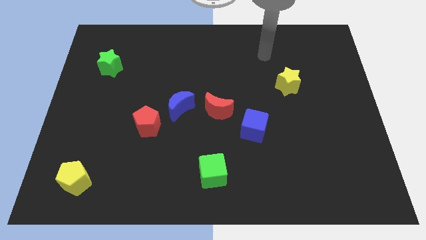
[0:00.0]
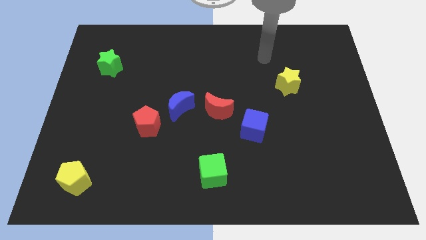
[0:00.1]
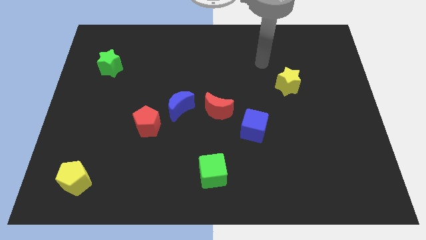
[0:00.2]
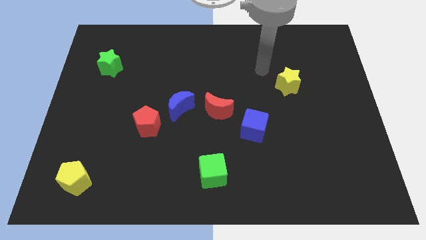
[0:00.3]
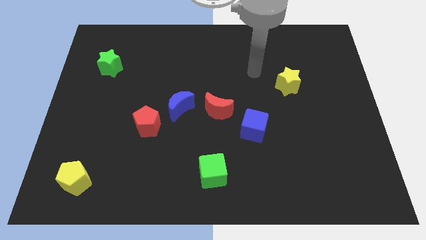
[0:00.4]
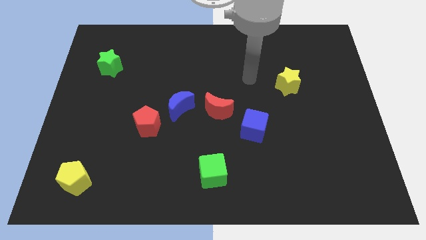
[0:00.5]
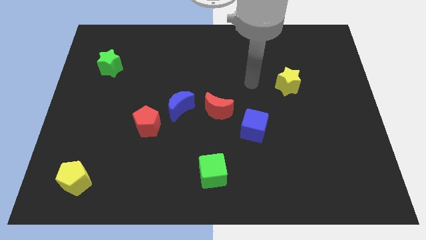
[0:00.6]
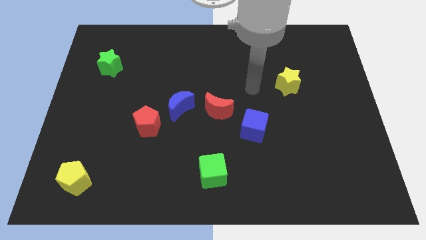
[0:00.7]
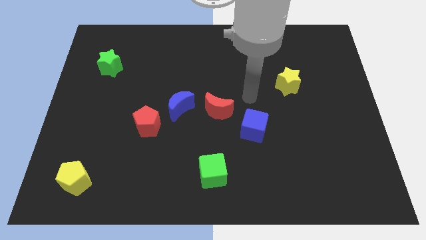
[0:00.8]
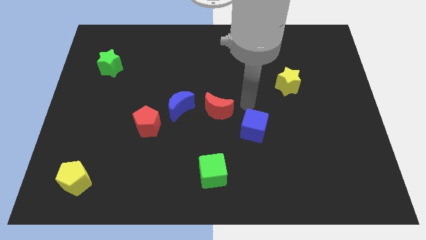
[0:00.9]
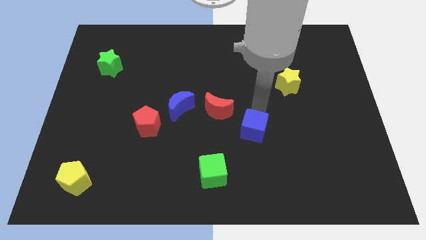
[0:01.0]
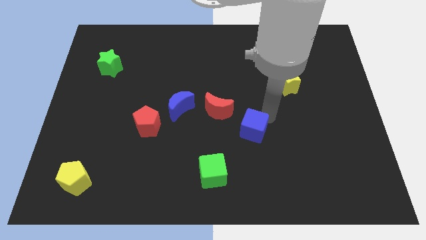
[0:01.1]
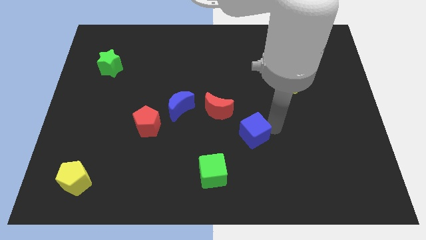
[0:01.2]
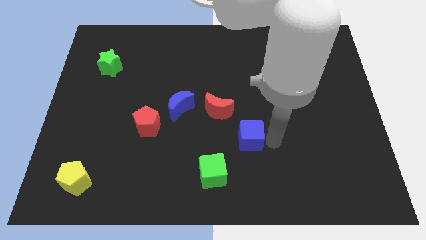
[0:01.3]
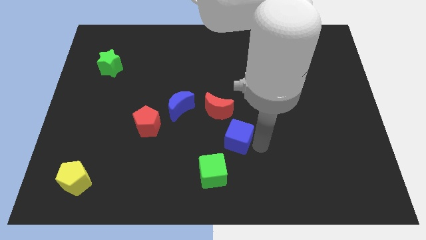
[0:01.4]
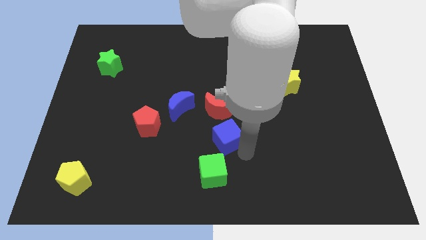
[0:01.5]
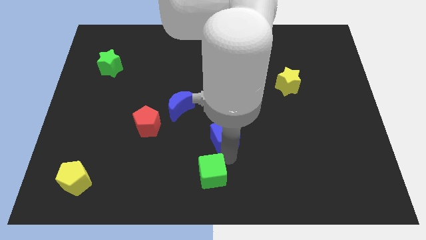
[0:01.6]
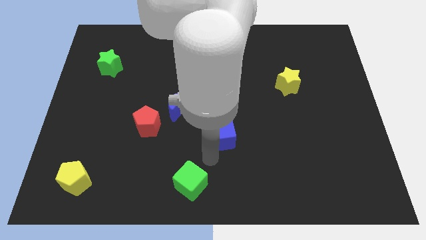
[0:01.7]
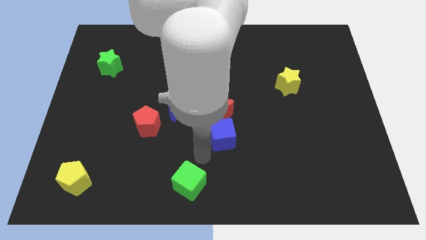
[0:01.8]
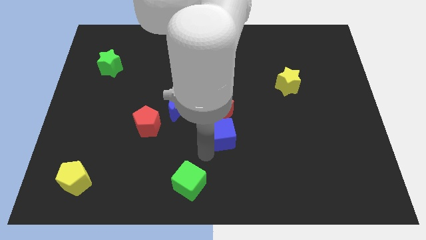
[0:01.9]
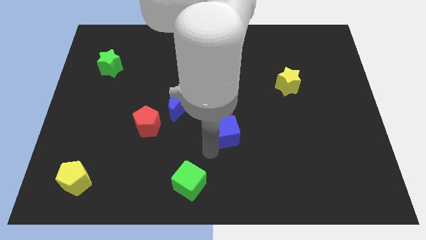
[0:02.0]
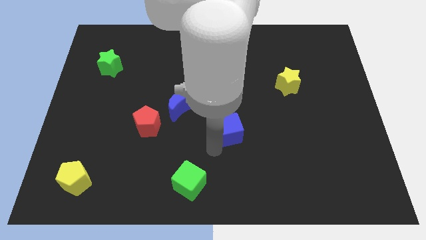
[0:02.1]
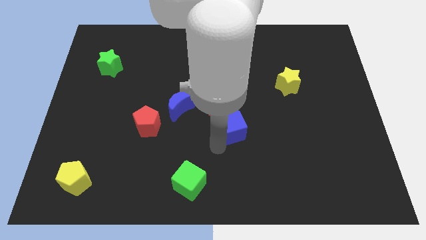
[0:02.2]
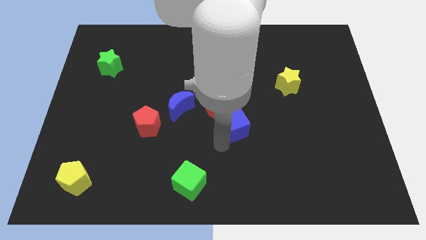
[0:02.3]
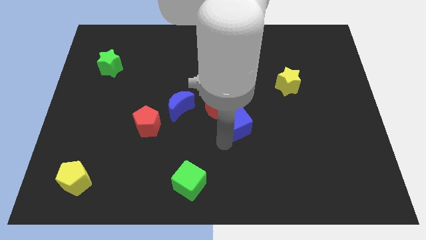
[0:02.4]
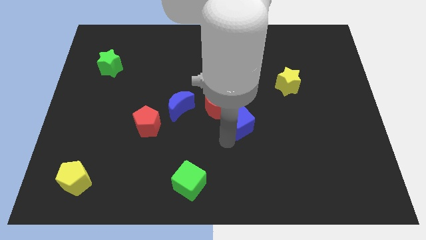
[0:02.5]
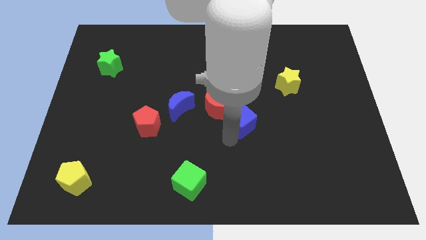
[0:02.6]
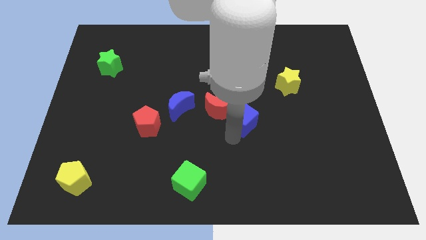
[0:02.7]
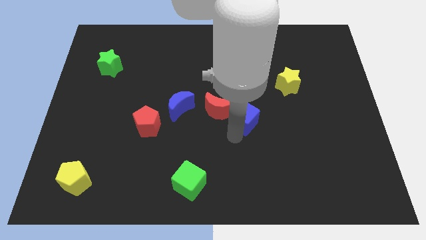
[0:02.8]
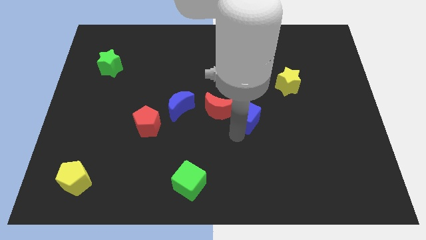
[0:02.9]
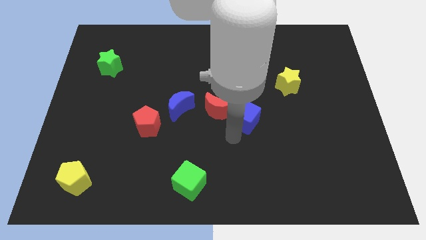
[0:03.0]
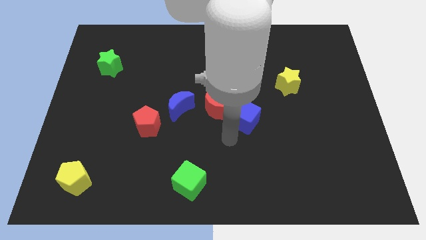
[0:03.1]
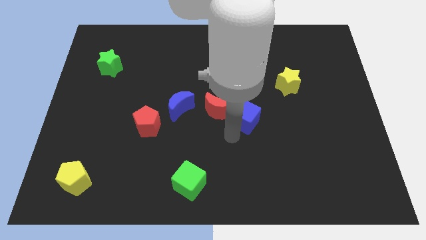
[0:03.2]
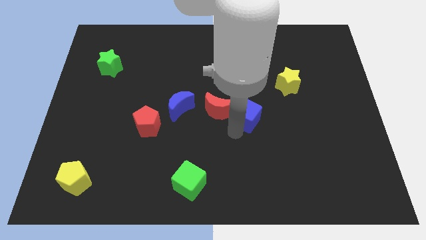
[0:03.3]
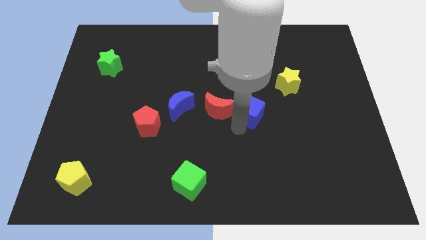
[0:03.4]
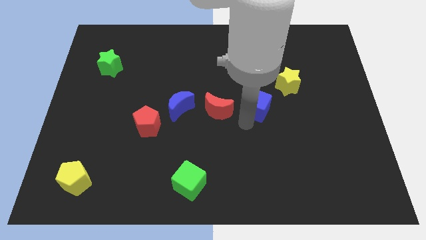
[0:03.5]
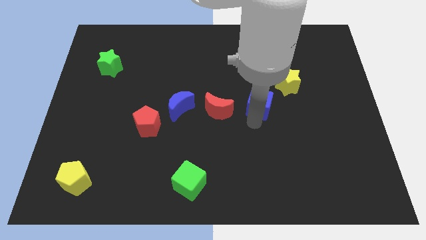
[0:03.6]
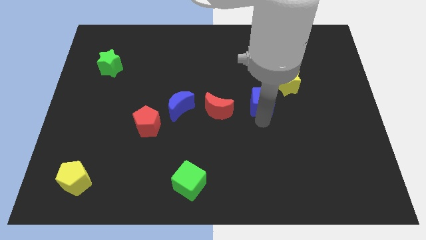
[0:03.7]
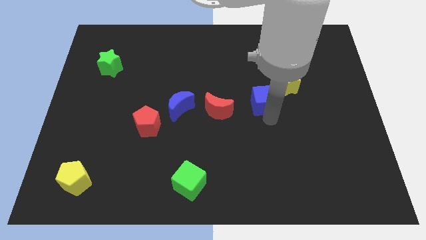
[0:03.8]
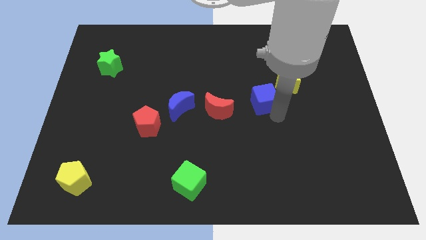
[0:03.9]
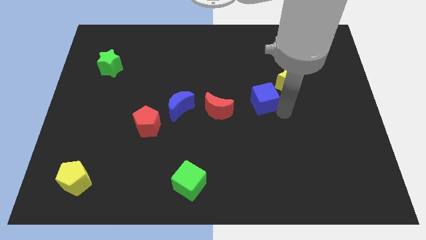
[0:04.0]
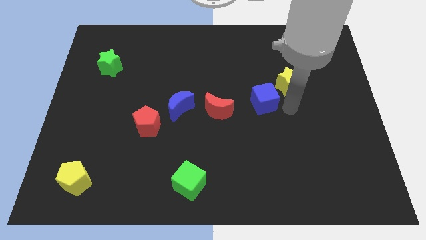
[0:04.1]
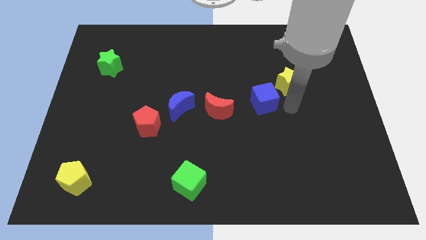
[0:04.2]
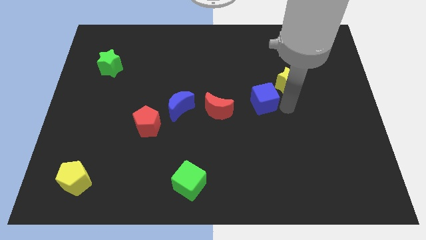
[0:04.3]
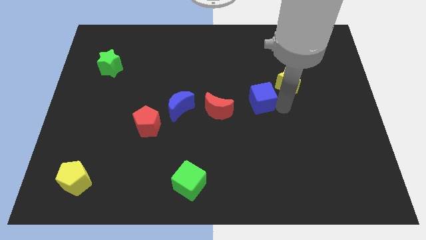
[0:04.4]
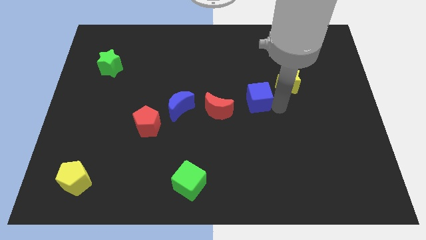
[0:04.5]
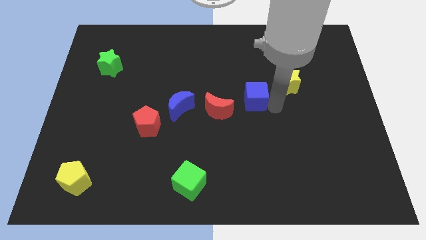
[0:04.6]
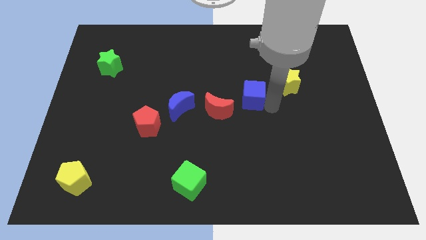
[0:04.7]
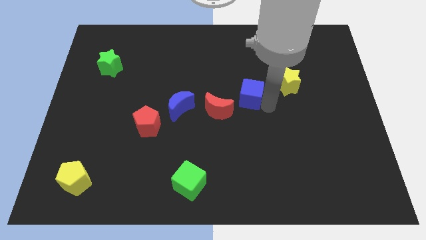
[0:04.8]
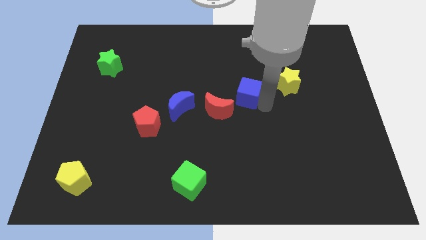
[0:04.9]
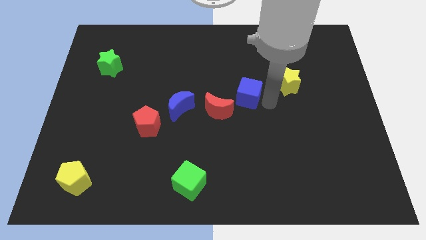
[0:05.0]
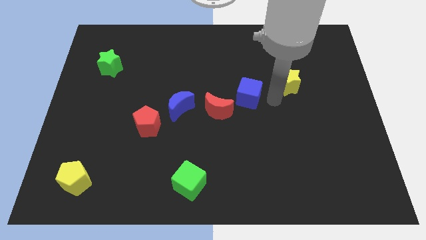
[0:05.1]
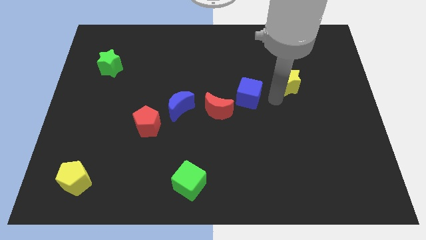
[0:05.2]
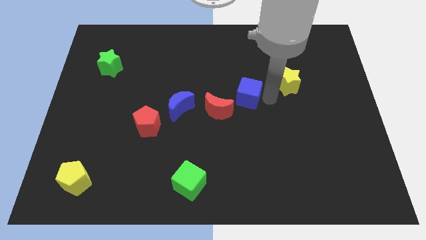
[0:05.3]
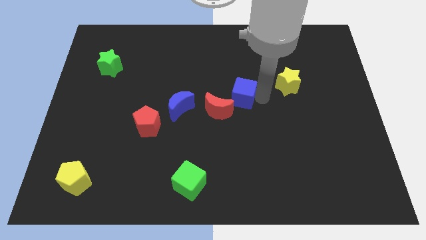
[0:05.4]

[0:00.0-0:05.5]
slightly move the blue cube diagonally up and left

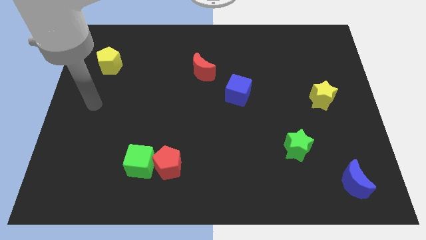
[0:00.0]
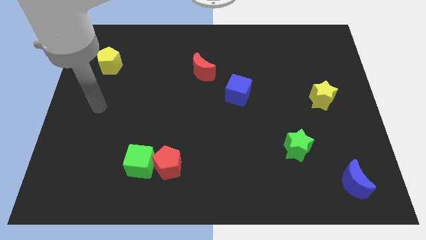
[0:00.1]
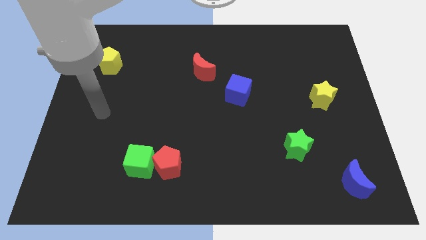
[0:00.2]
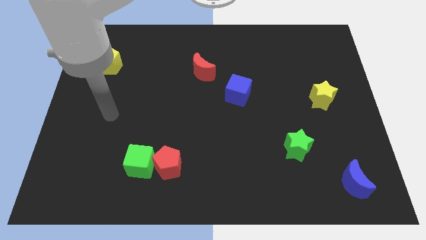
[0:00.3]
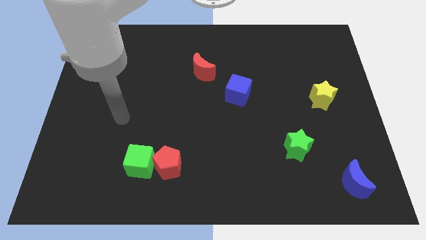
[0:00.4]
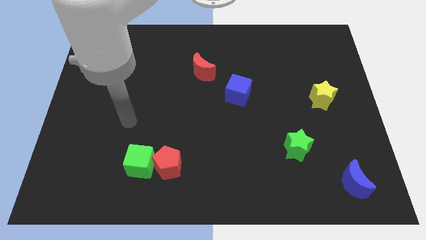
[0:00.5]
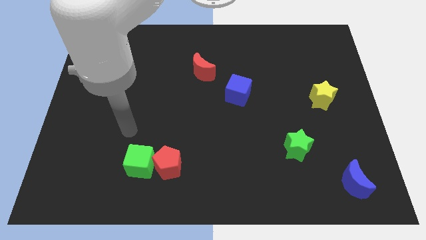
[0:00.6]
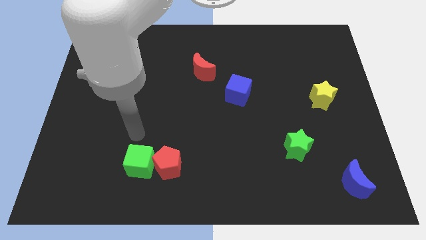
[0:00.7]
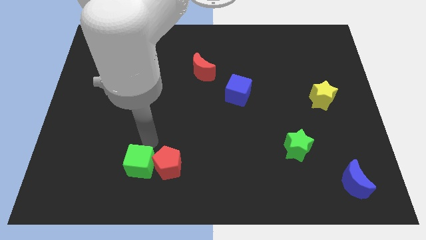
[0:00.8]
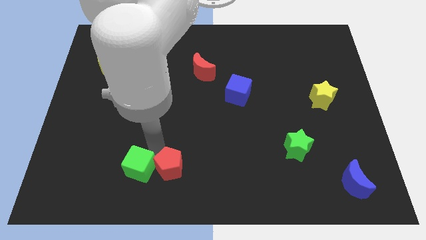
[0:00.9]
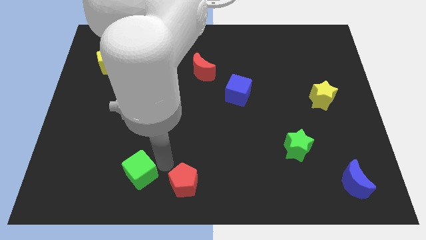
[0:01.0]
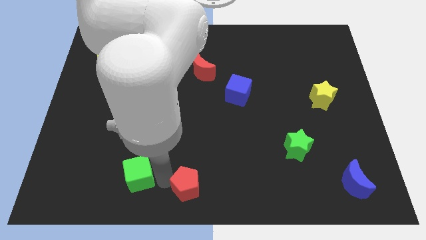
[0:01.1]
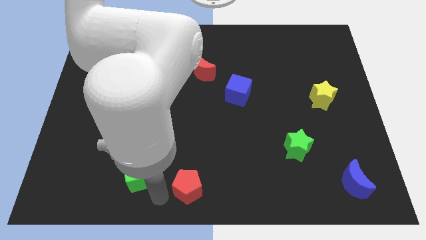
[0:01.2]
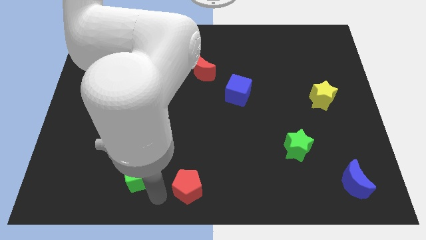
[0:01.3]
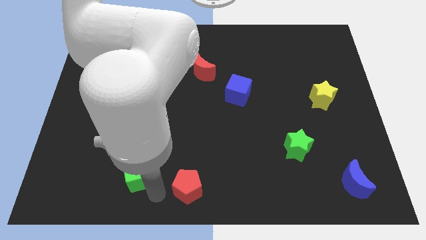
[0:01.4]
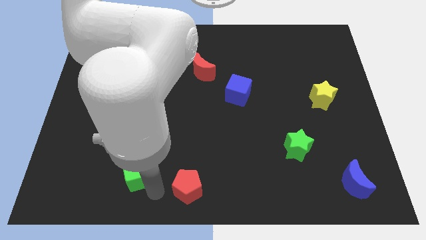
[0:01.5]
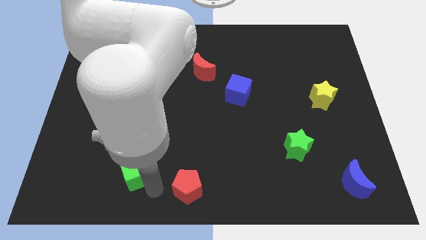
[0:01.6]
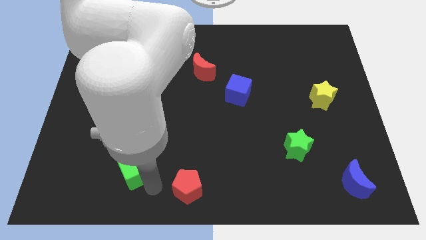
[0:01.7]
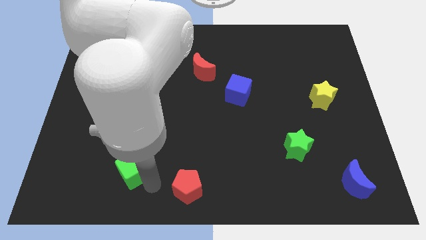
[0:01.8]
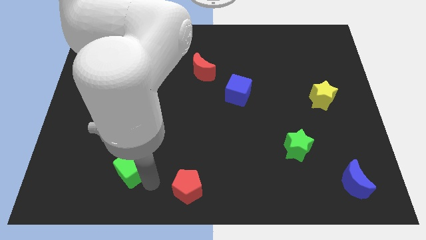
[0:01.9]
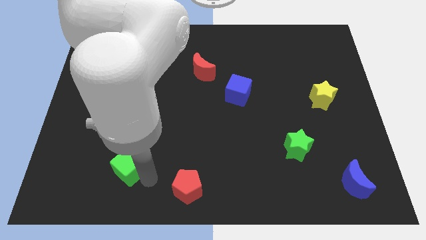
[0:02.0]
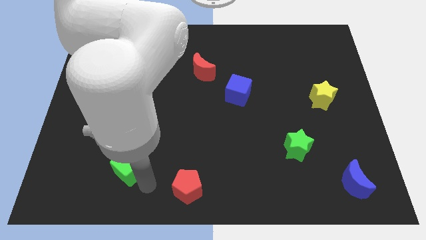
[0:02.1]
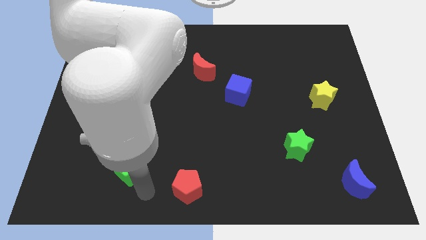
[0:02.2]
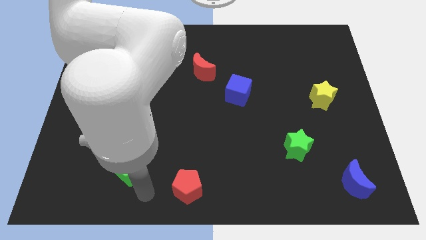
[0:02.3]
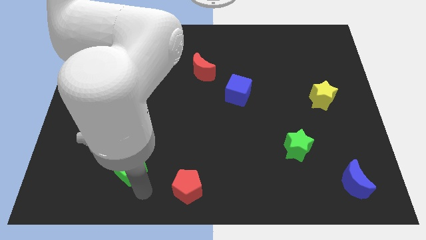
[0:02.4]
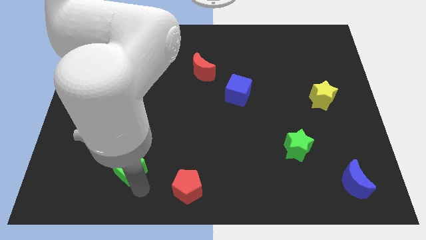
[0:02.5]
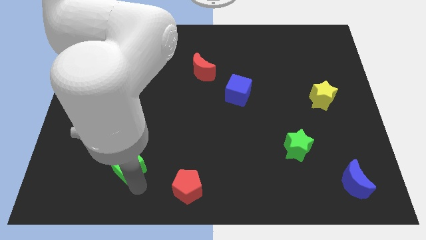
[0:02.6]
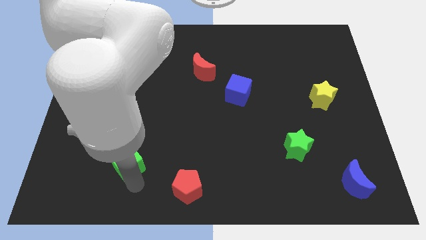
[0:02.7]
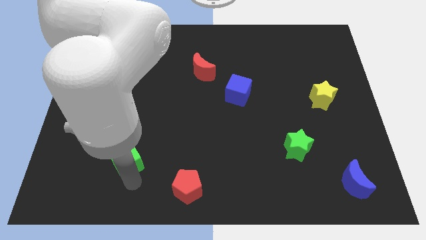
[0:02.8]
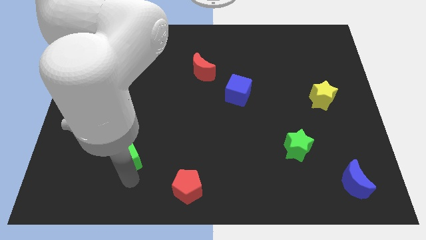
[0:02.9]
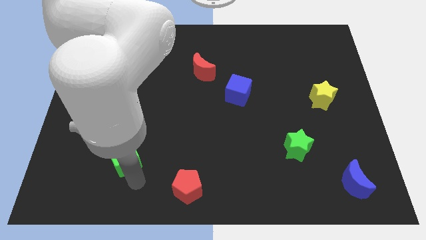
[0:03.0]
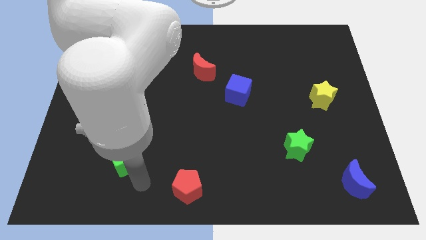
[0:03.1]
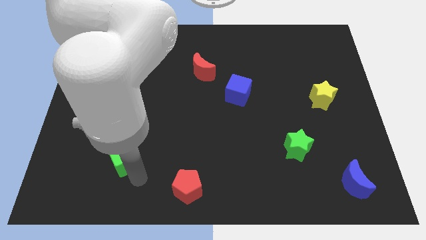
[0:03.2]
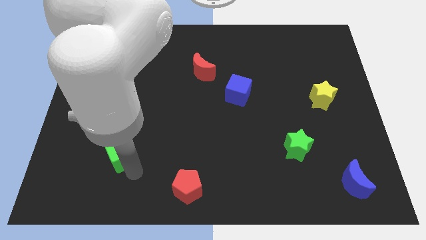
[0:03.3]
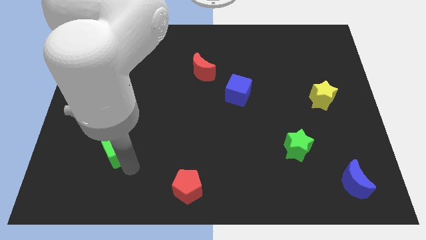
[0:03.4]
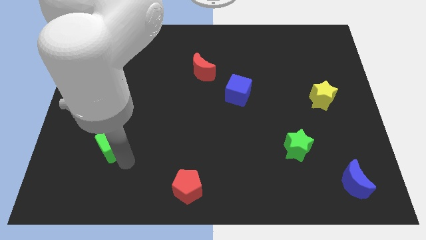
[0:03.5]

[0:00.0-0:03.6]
slightly move the green cube up and then left
